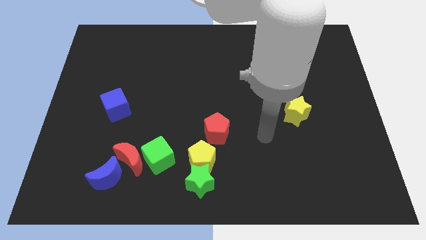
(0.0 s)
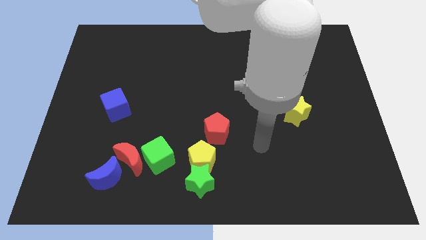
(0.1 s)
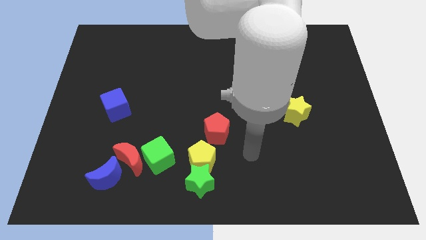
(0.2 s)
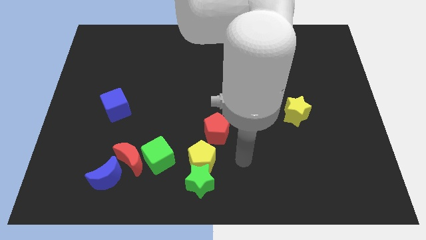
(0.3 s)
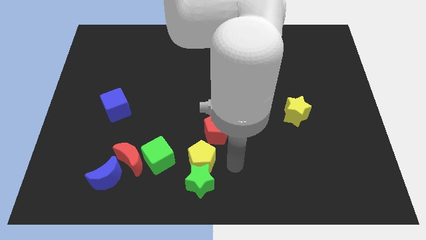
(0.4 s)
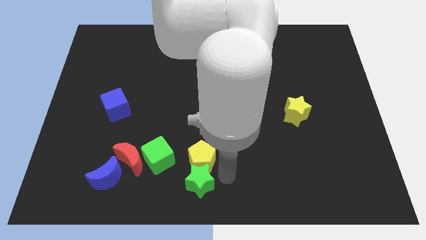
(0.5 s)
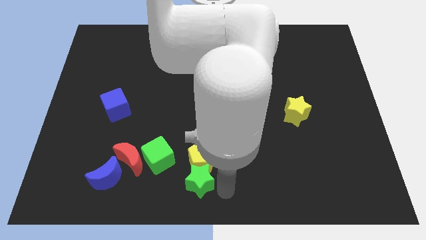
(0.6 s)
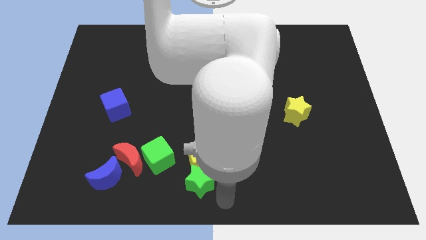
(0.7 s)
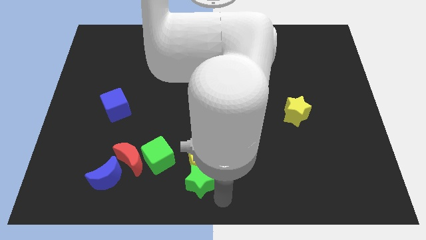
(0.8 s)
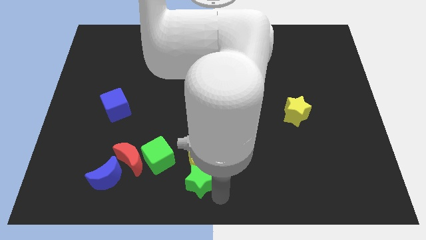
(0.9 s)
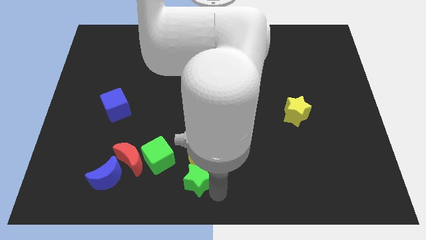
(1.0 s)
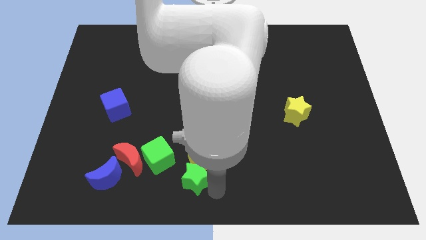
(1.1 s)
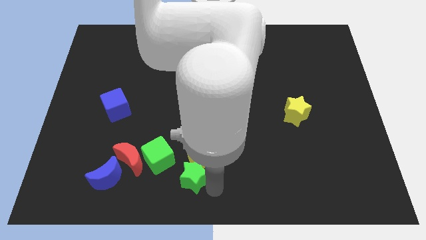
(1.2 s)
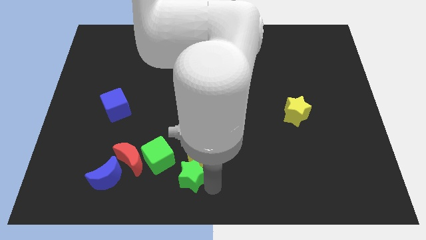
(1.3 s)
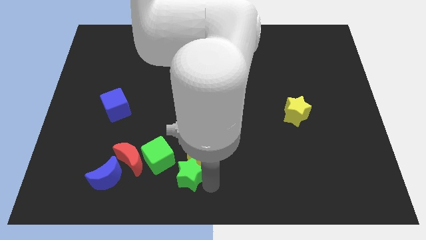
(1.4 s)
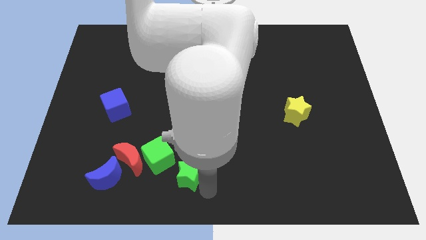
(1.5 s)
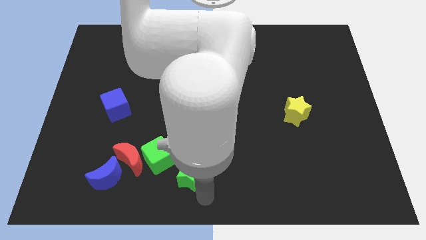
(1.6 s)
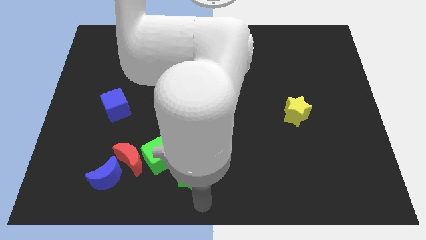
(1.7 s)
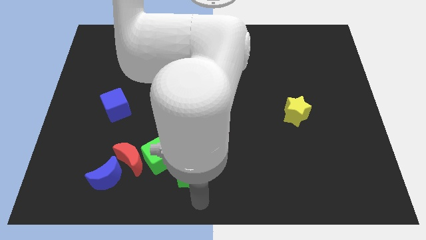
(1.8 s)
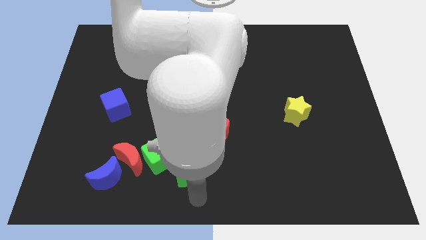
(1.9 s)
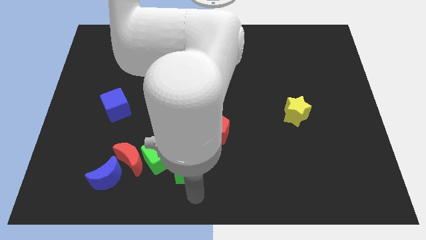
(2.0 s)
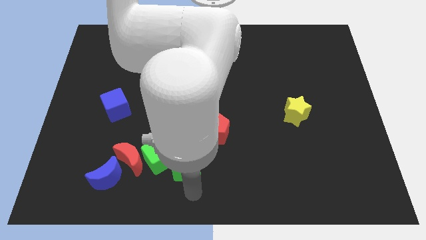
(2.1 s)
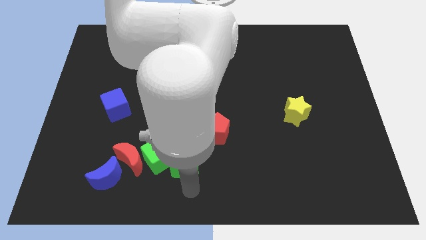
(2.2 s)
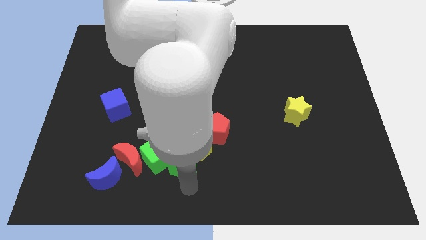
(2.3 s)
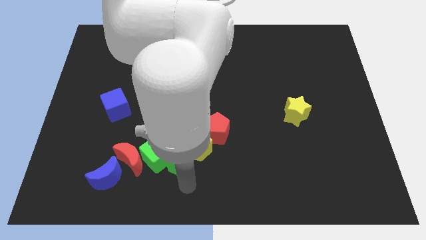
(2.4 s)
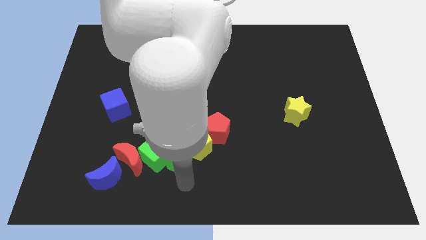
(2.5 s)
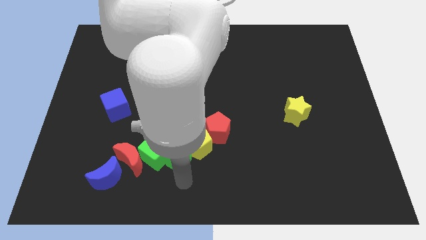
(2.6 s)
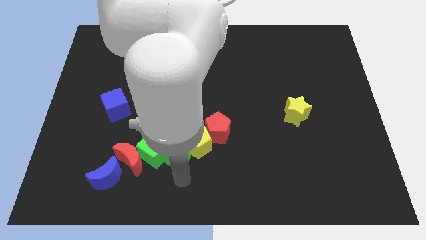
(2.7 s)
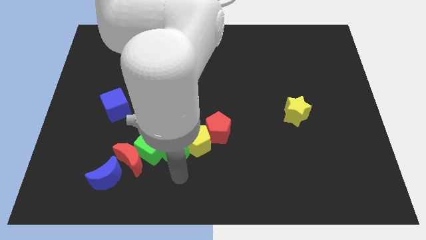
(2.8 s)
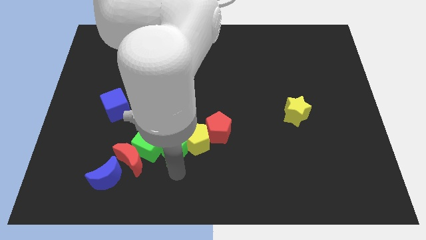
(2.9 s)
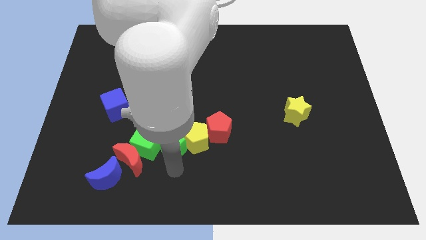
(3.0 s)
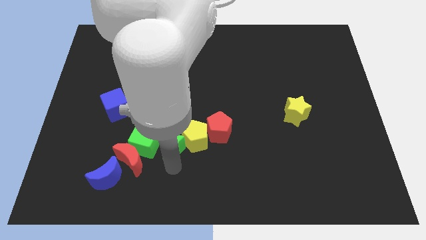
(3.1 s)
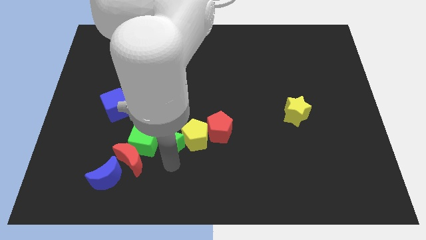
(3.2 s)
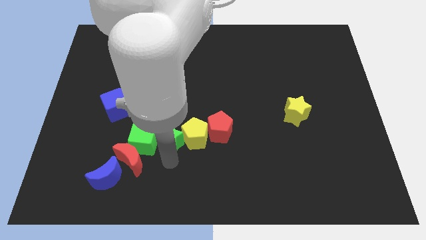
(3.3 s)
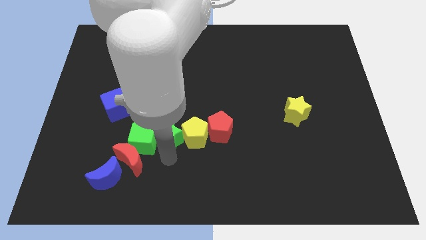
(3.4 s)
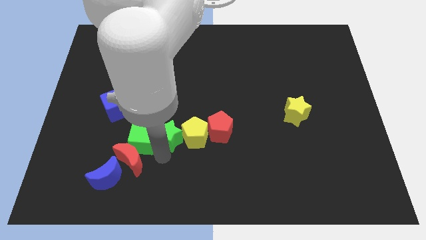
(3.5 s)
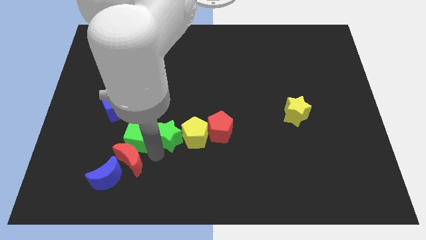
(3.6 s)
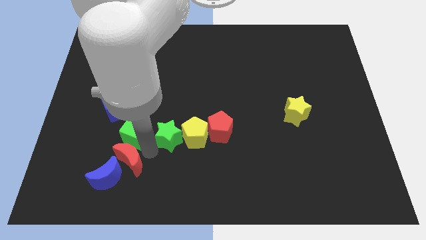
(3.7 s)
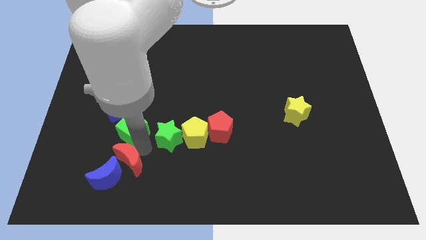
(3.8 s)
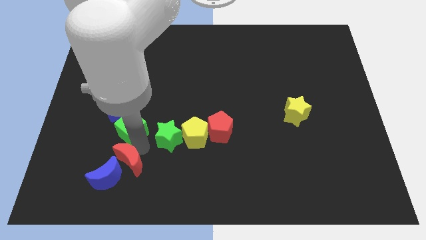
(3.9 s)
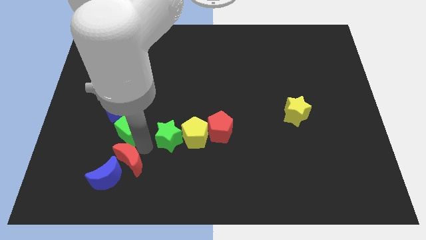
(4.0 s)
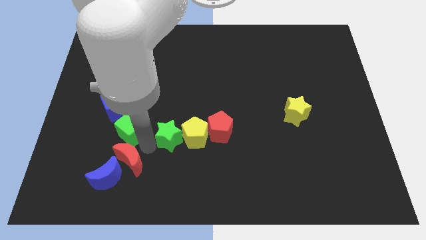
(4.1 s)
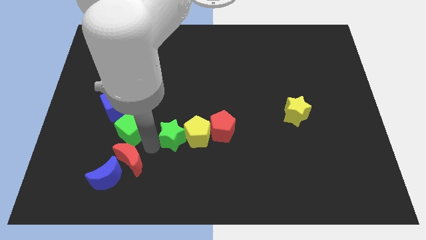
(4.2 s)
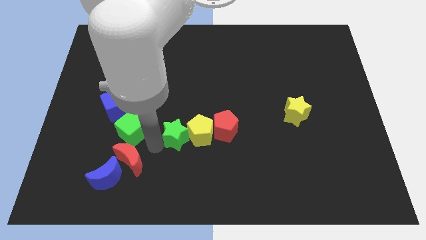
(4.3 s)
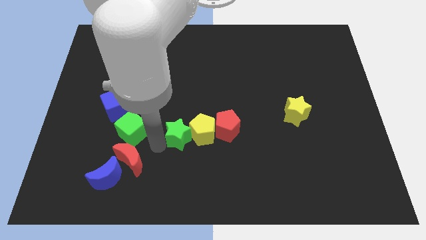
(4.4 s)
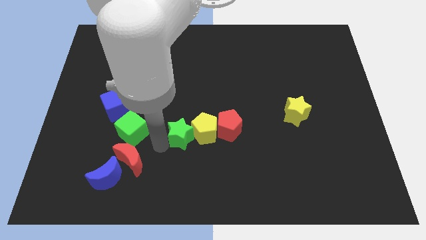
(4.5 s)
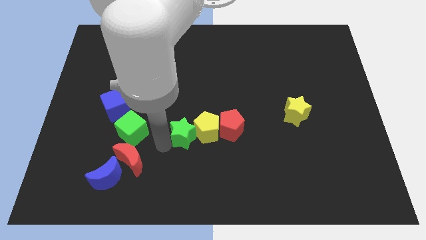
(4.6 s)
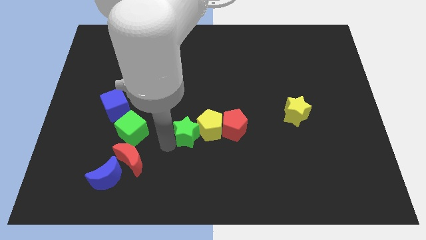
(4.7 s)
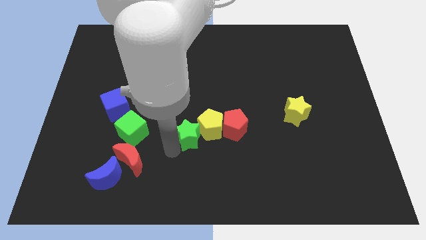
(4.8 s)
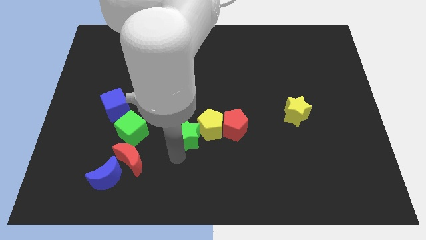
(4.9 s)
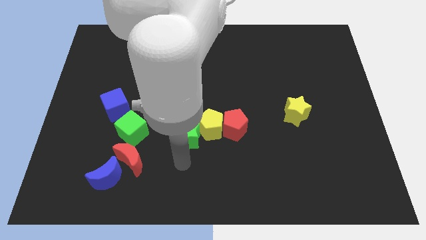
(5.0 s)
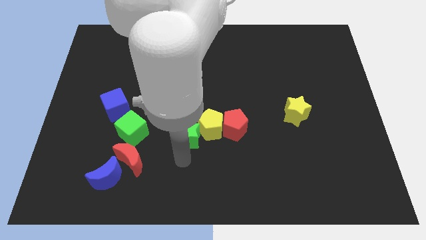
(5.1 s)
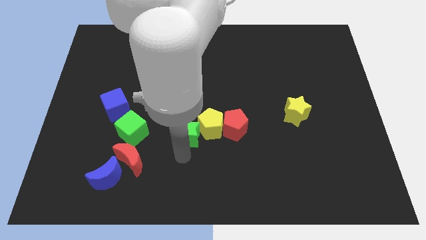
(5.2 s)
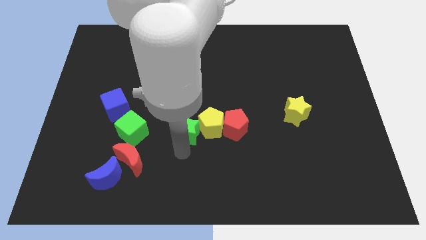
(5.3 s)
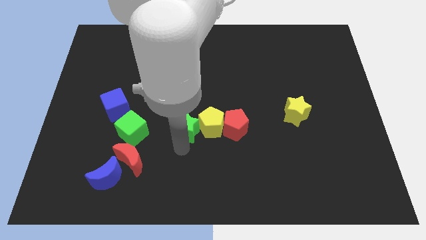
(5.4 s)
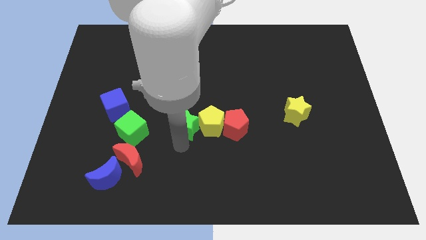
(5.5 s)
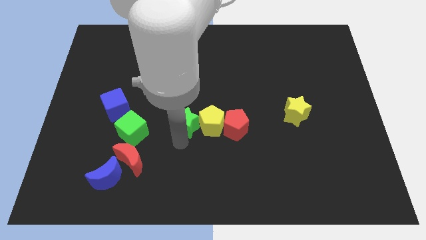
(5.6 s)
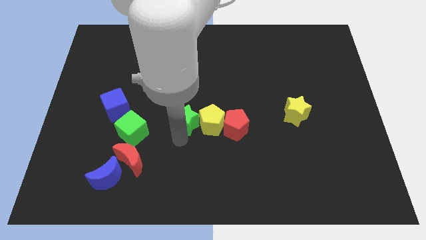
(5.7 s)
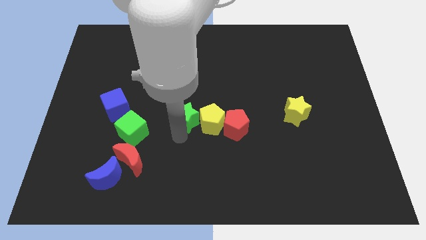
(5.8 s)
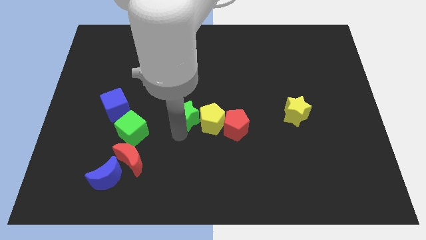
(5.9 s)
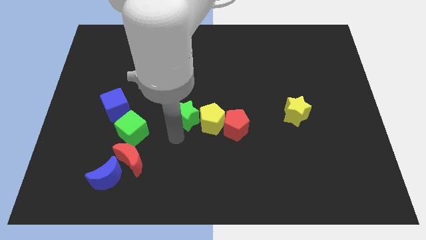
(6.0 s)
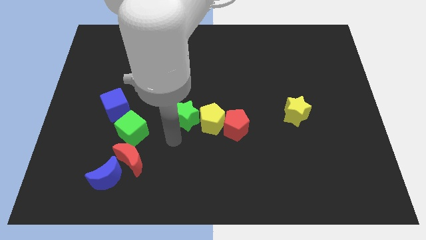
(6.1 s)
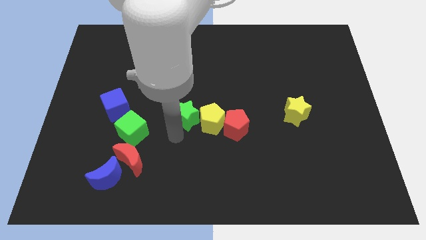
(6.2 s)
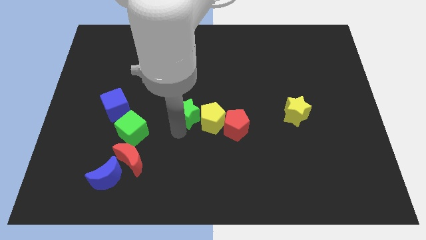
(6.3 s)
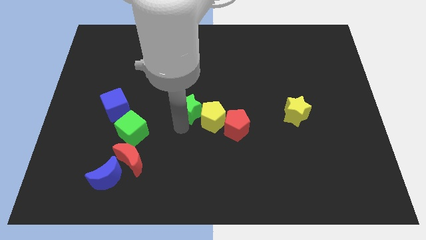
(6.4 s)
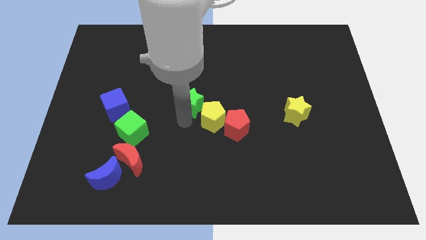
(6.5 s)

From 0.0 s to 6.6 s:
push the green star up

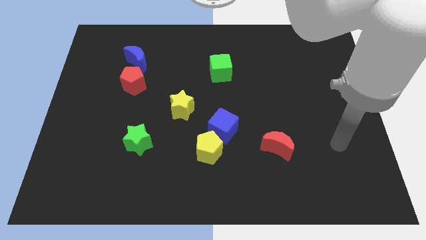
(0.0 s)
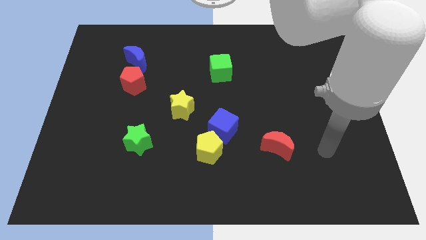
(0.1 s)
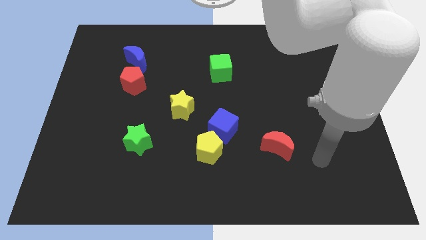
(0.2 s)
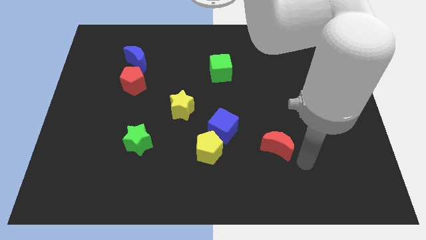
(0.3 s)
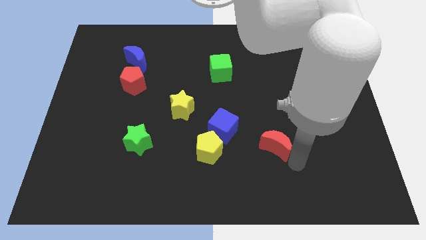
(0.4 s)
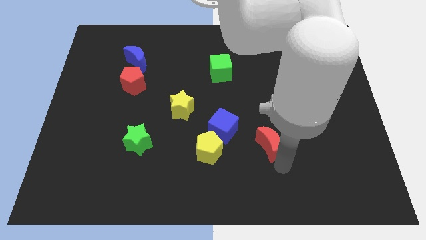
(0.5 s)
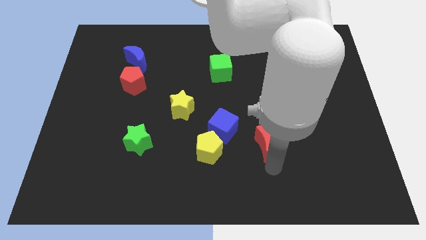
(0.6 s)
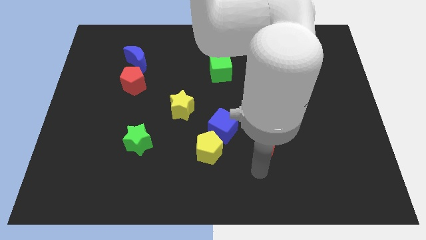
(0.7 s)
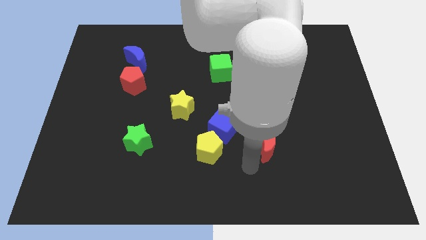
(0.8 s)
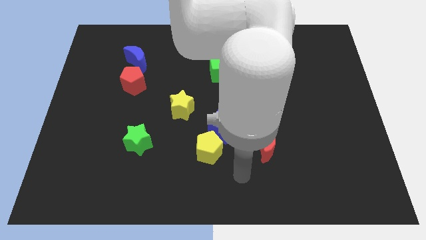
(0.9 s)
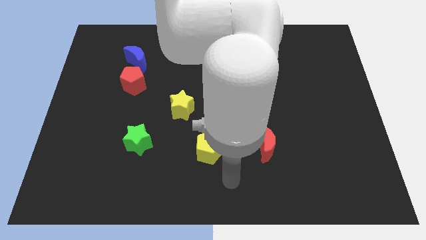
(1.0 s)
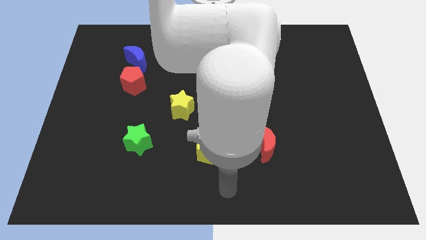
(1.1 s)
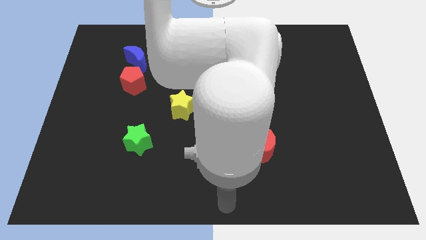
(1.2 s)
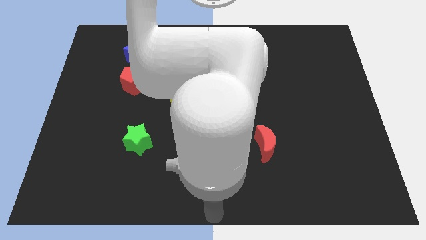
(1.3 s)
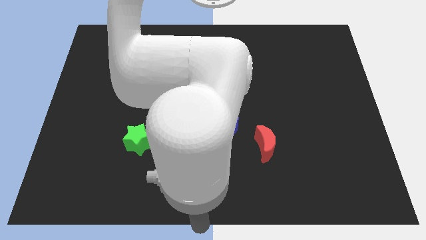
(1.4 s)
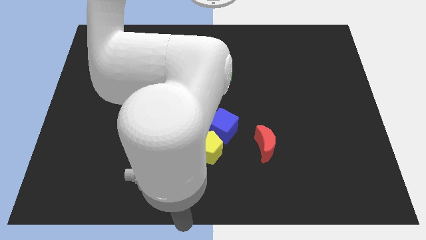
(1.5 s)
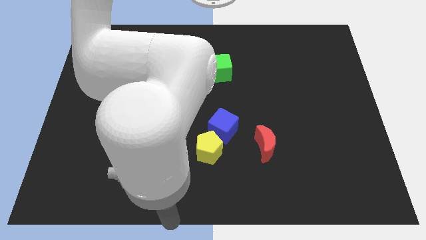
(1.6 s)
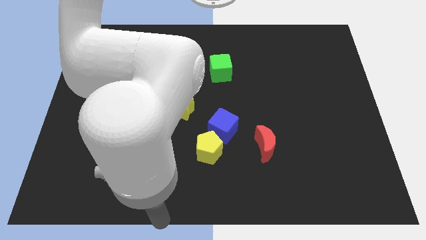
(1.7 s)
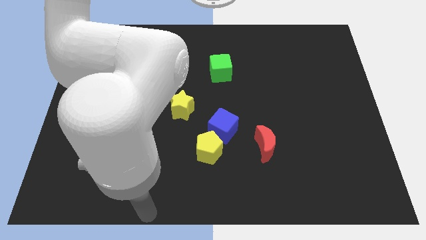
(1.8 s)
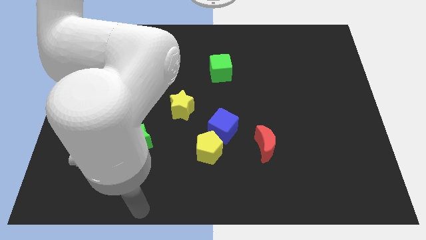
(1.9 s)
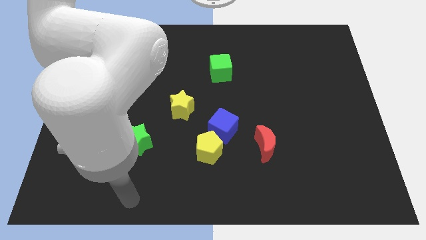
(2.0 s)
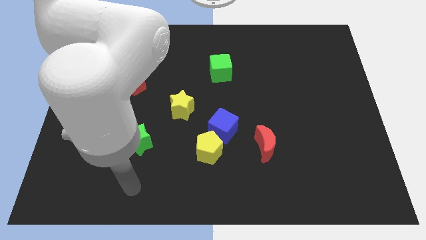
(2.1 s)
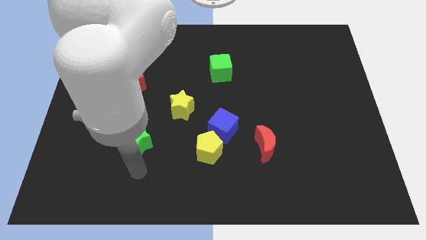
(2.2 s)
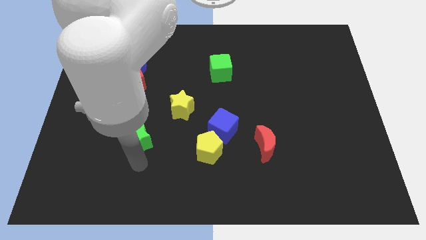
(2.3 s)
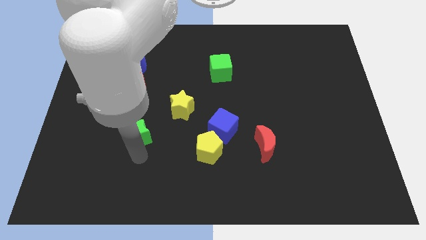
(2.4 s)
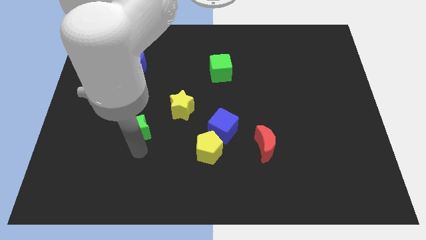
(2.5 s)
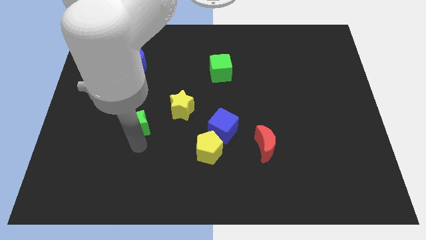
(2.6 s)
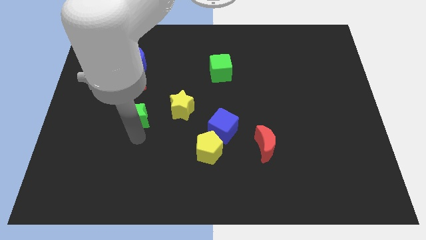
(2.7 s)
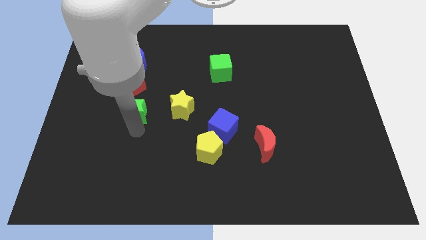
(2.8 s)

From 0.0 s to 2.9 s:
slide the green star slightly up
